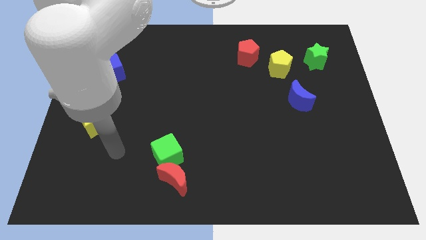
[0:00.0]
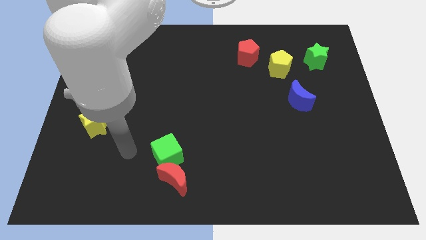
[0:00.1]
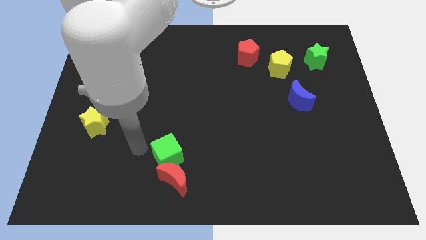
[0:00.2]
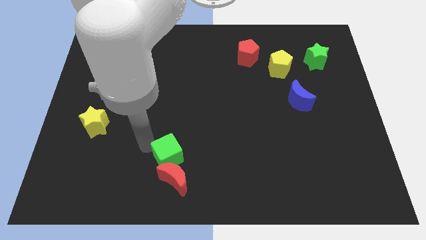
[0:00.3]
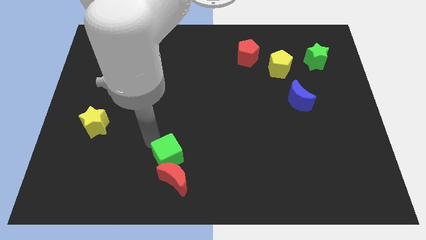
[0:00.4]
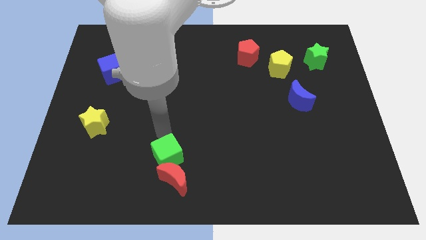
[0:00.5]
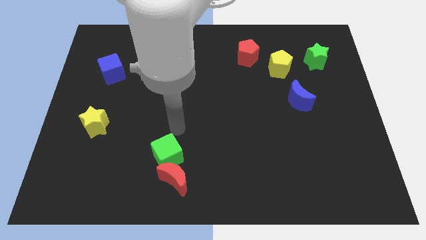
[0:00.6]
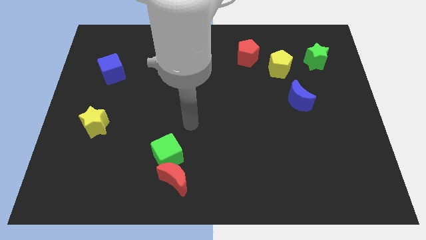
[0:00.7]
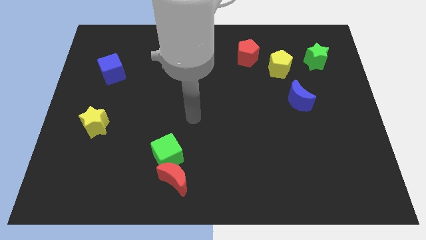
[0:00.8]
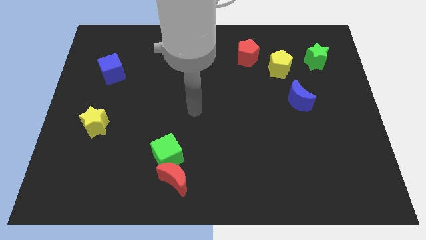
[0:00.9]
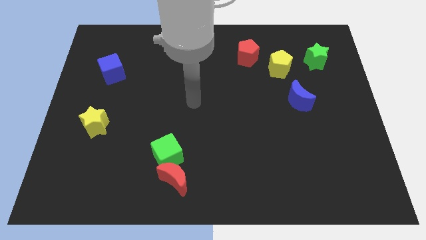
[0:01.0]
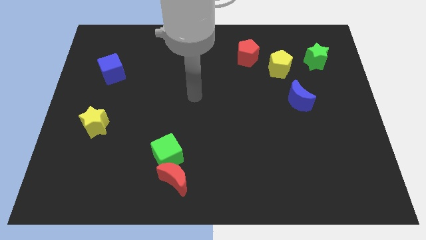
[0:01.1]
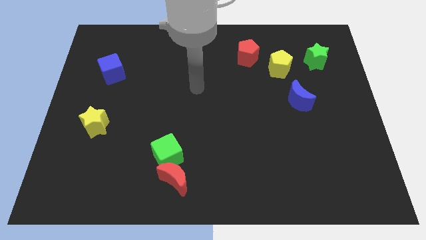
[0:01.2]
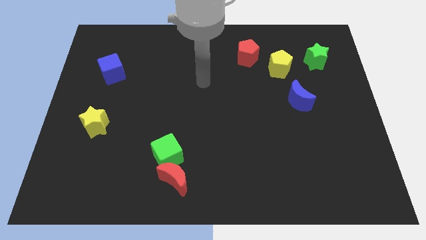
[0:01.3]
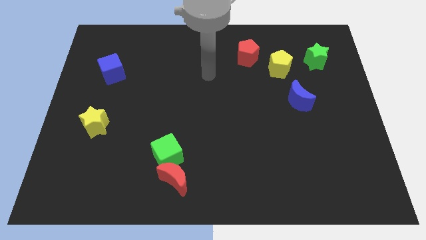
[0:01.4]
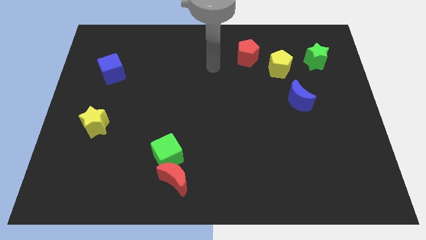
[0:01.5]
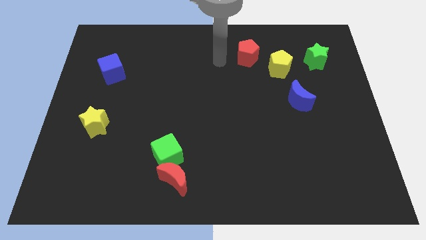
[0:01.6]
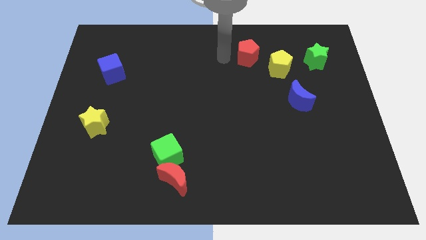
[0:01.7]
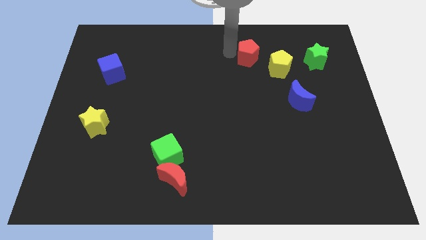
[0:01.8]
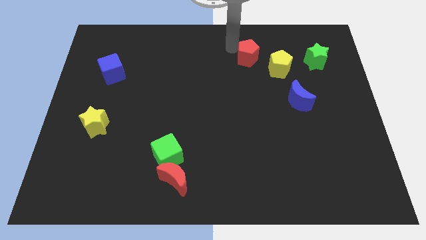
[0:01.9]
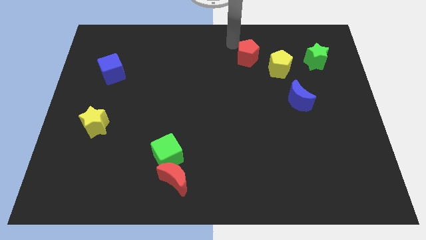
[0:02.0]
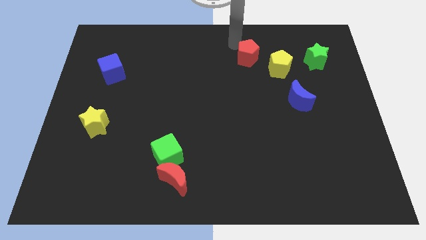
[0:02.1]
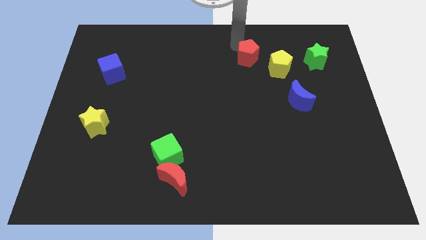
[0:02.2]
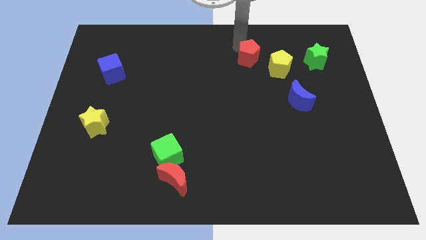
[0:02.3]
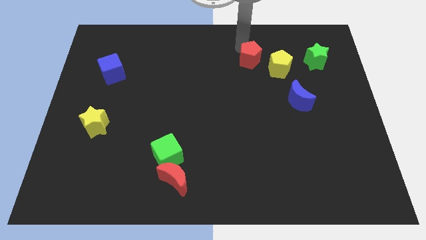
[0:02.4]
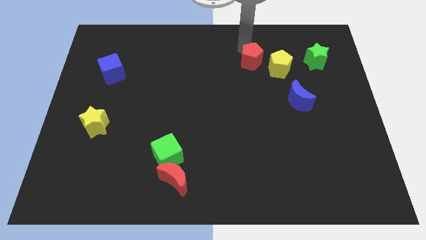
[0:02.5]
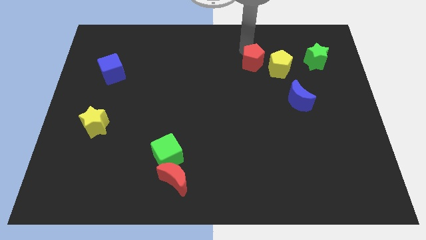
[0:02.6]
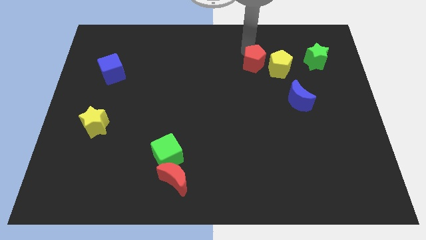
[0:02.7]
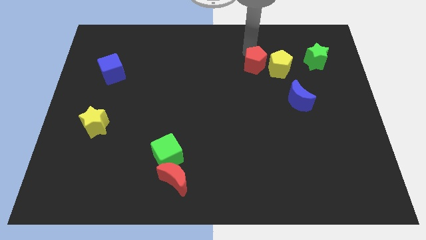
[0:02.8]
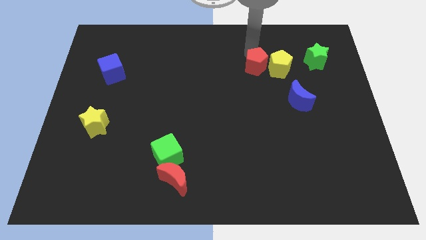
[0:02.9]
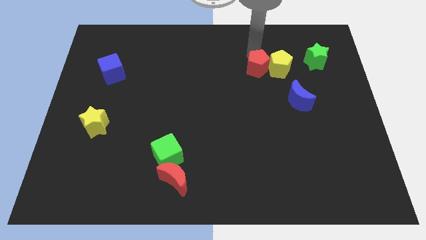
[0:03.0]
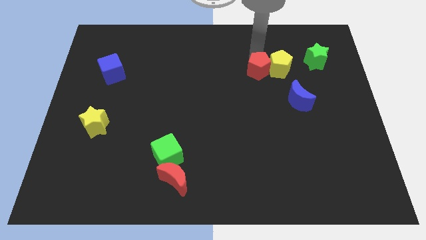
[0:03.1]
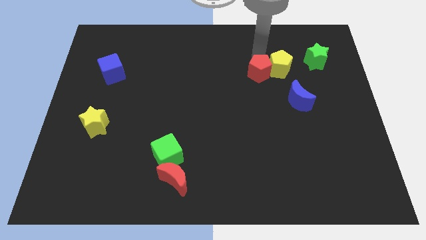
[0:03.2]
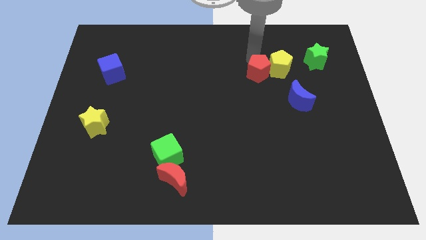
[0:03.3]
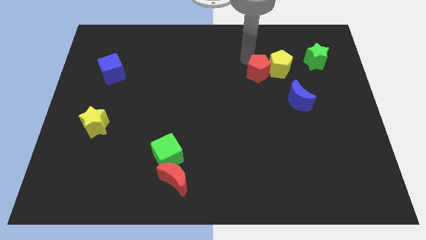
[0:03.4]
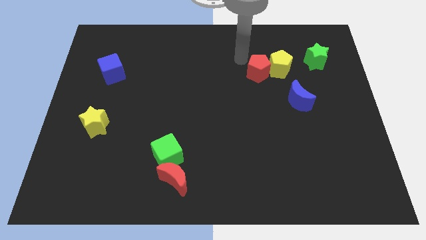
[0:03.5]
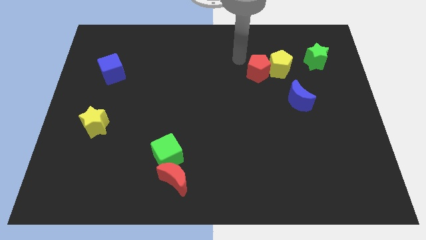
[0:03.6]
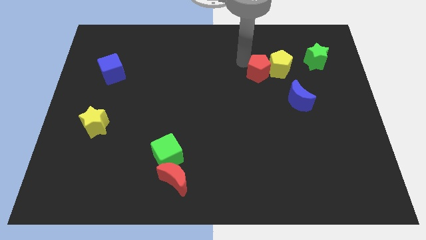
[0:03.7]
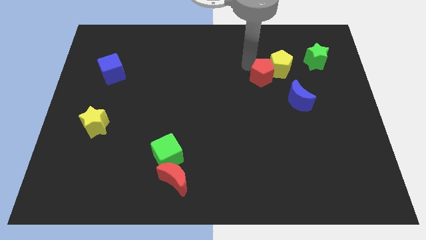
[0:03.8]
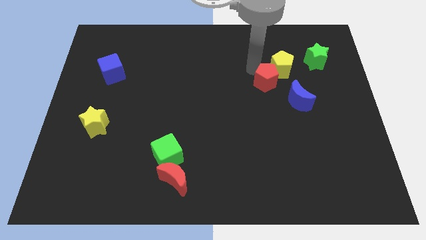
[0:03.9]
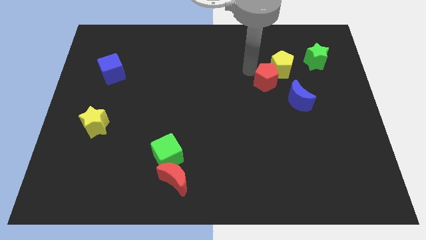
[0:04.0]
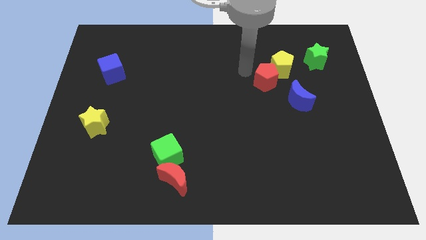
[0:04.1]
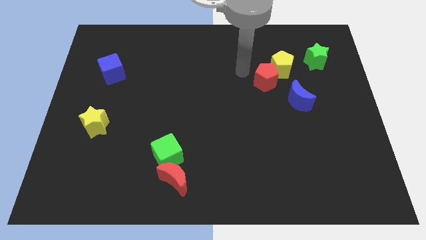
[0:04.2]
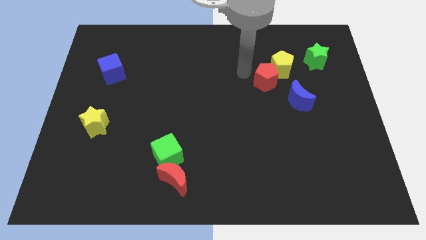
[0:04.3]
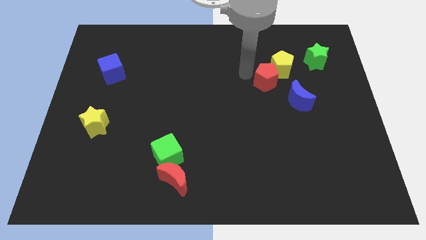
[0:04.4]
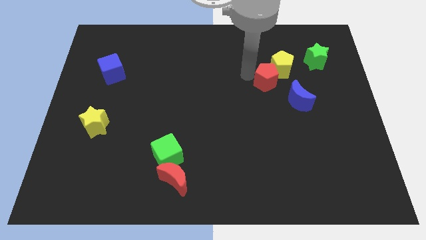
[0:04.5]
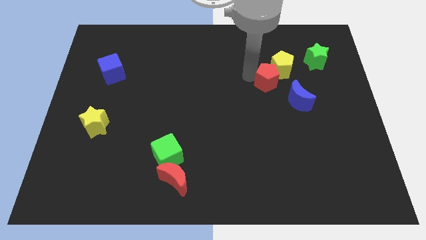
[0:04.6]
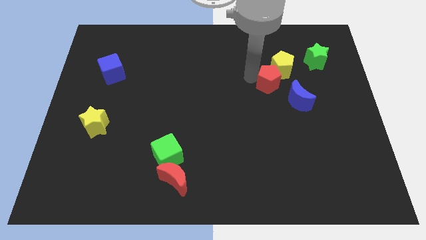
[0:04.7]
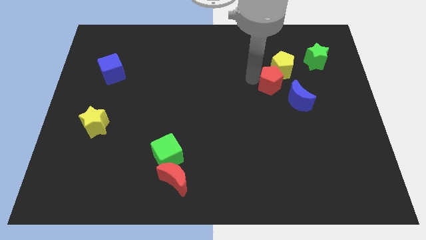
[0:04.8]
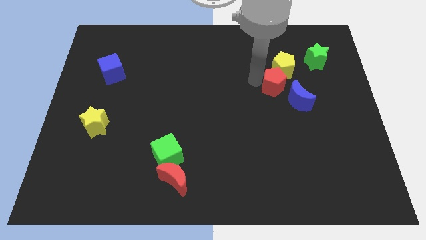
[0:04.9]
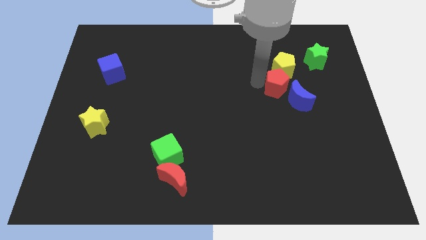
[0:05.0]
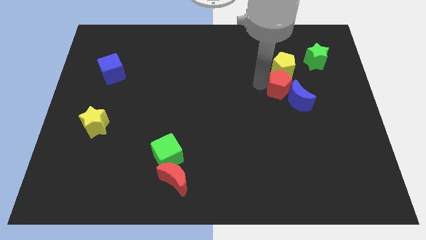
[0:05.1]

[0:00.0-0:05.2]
move the red pentagon close to the blue moon

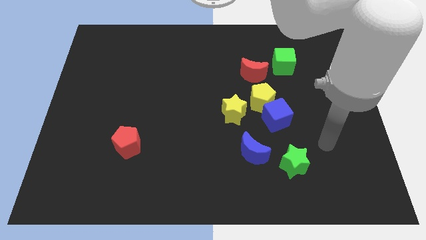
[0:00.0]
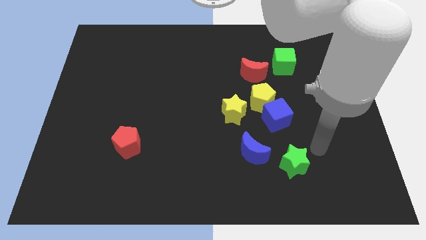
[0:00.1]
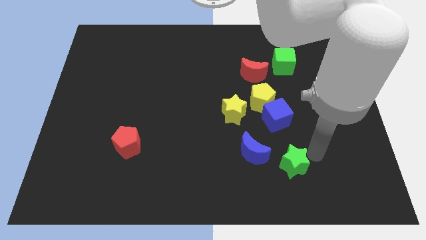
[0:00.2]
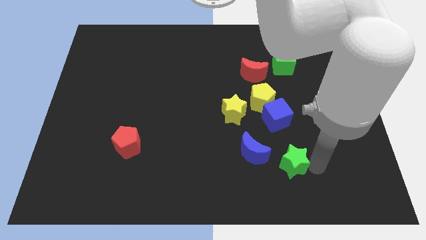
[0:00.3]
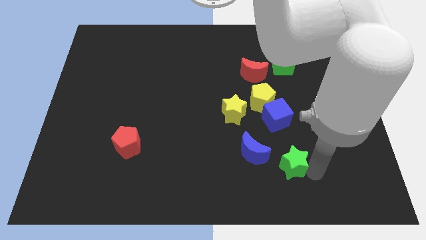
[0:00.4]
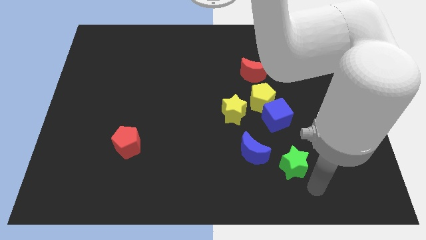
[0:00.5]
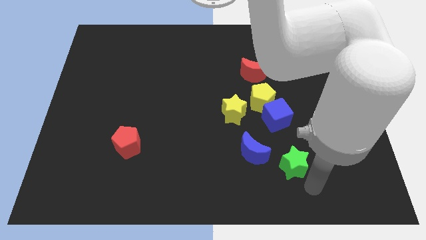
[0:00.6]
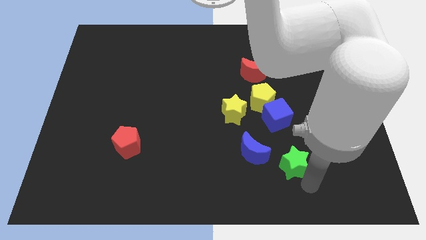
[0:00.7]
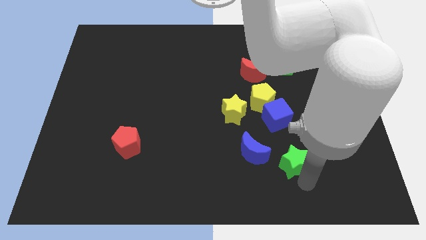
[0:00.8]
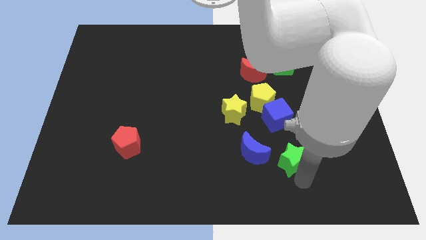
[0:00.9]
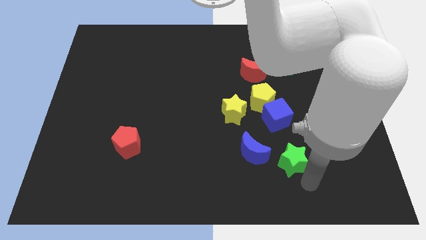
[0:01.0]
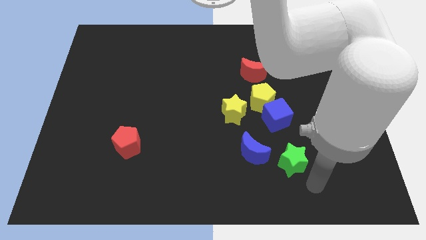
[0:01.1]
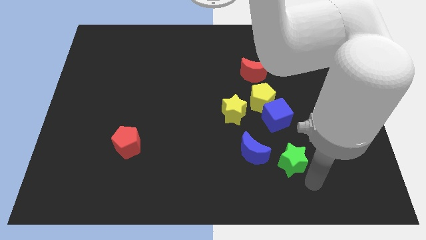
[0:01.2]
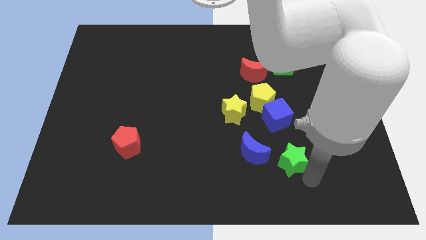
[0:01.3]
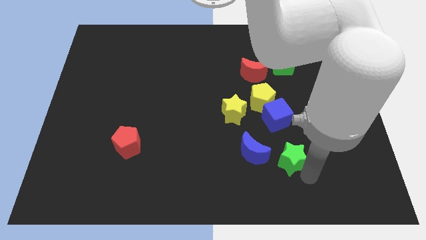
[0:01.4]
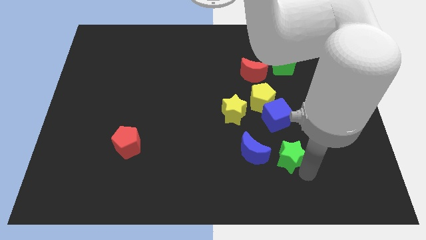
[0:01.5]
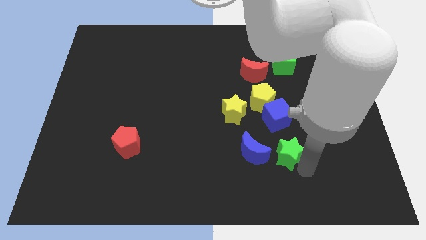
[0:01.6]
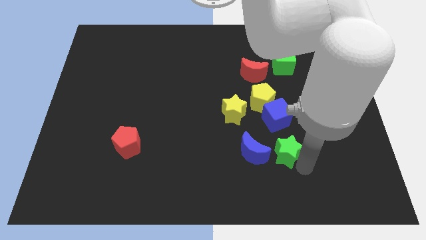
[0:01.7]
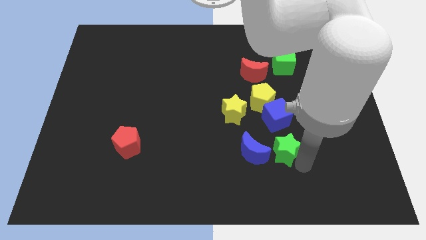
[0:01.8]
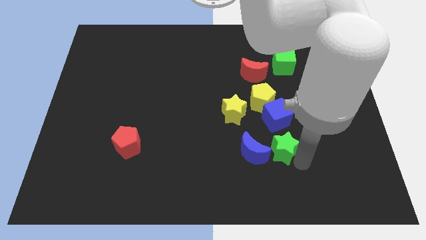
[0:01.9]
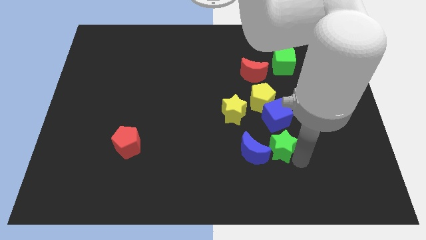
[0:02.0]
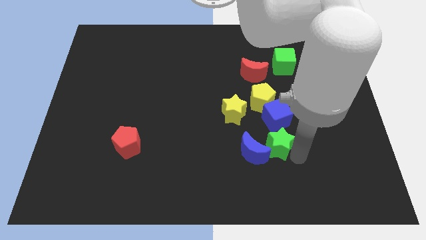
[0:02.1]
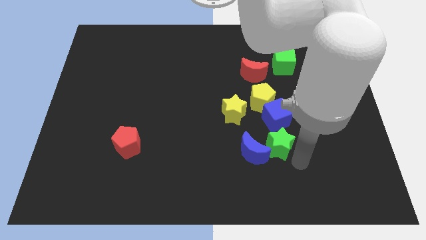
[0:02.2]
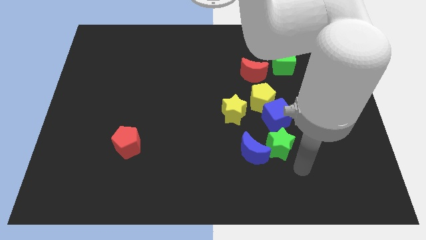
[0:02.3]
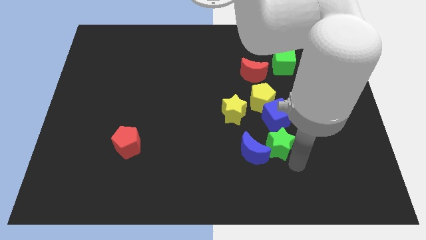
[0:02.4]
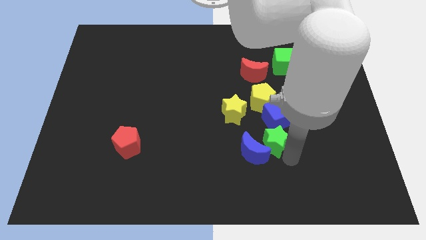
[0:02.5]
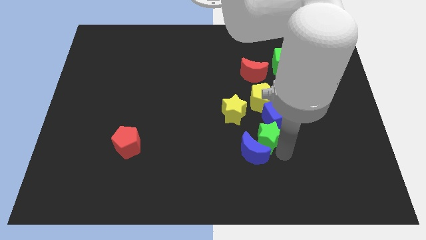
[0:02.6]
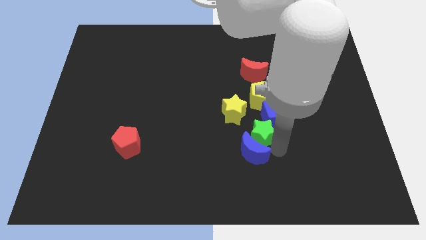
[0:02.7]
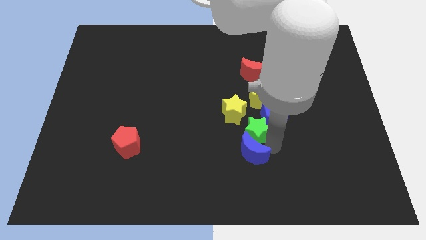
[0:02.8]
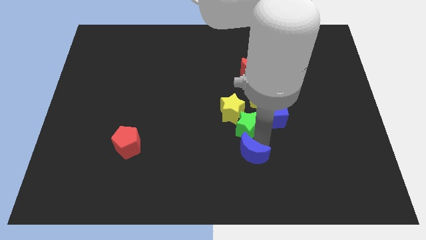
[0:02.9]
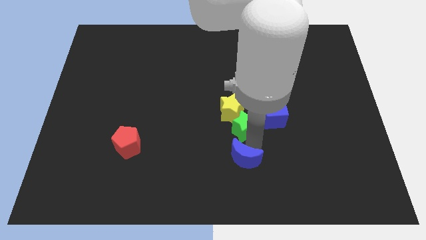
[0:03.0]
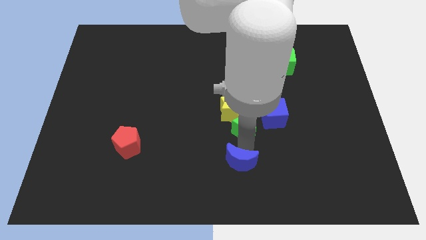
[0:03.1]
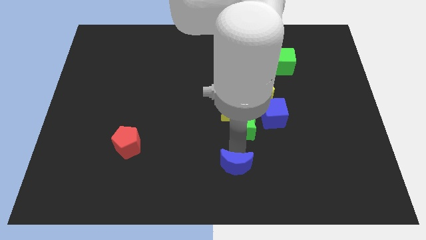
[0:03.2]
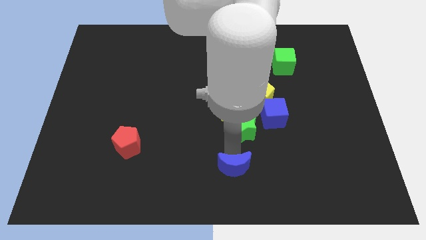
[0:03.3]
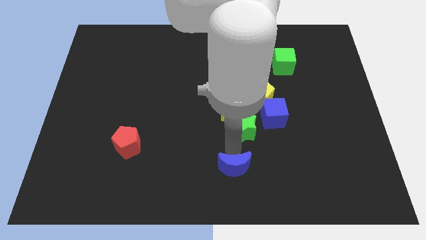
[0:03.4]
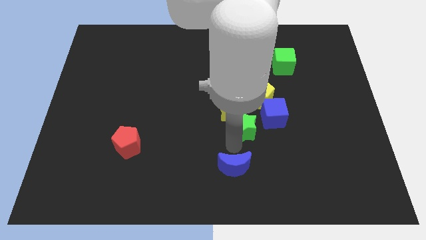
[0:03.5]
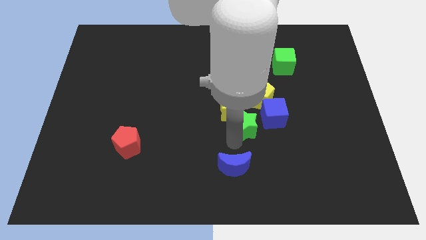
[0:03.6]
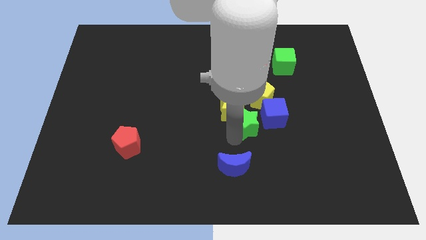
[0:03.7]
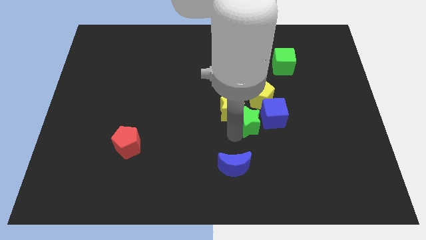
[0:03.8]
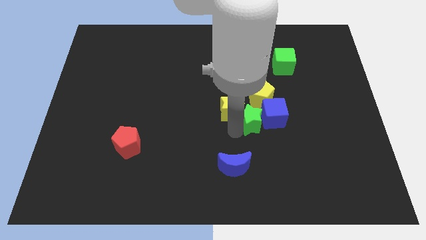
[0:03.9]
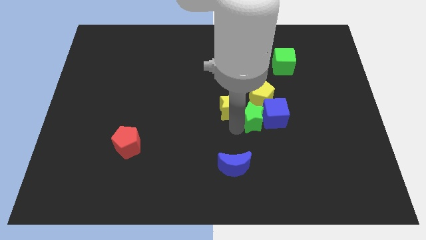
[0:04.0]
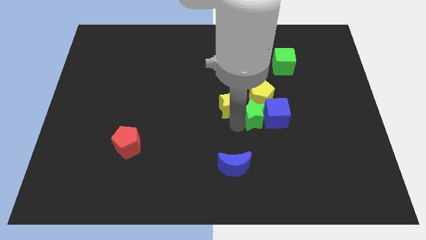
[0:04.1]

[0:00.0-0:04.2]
put the green star to the yellow pentagon
